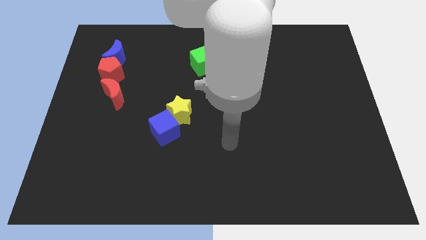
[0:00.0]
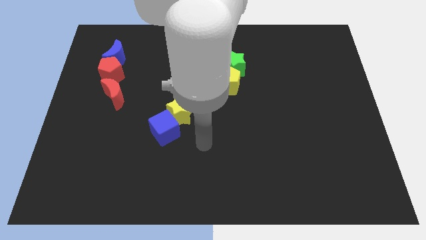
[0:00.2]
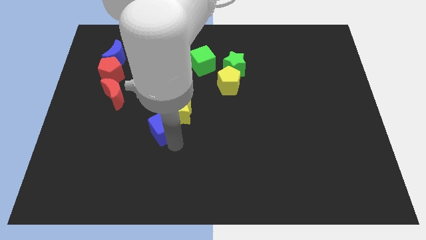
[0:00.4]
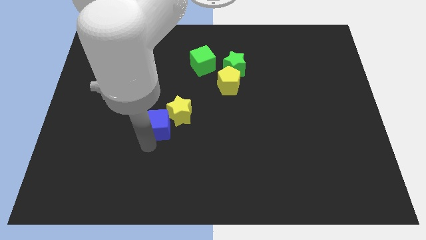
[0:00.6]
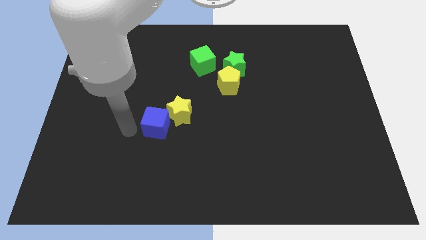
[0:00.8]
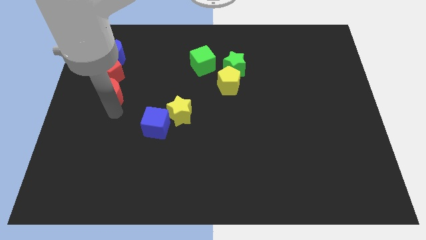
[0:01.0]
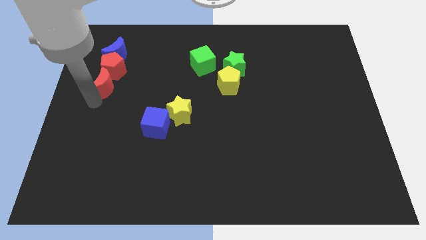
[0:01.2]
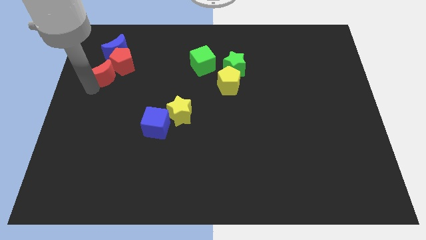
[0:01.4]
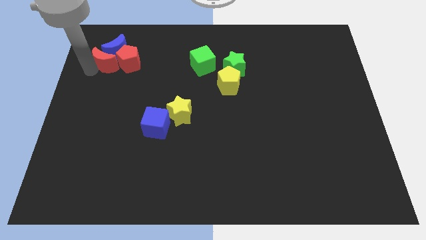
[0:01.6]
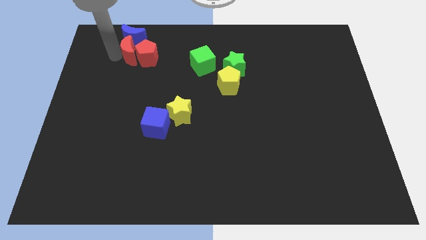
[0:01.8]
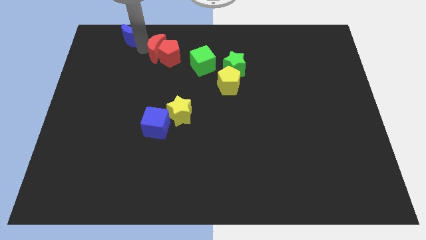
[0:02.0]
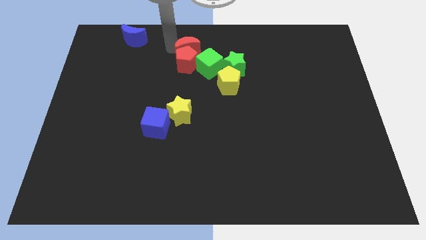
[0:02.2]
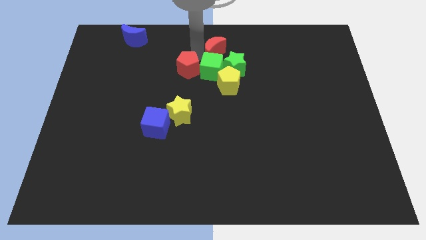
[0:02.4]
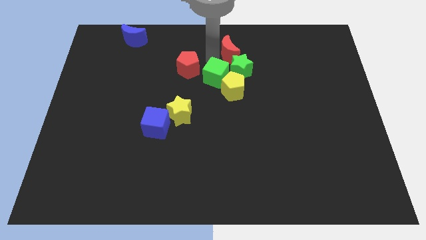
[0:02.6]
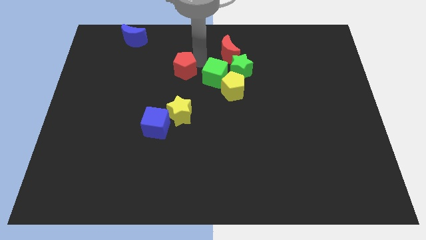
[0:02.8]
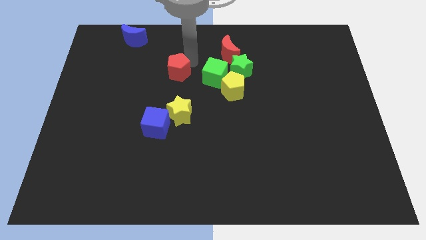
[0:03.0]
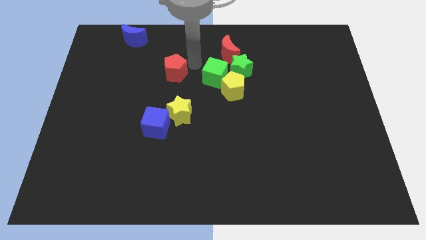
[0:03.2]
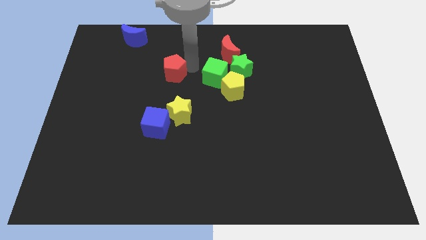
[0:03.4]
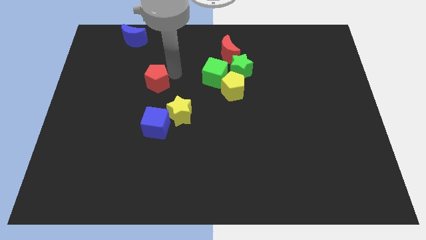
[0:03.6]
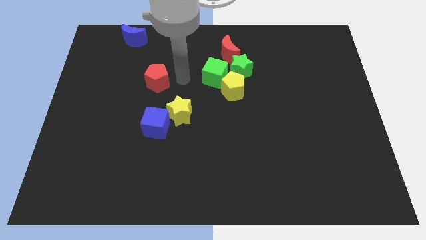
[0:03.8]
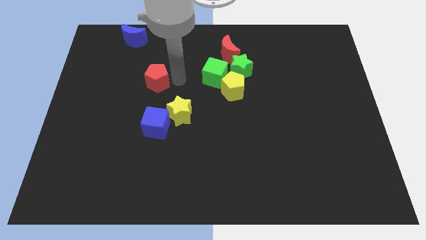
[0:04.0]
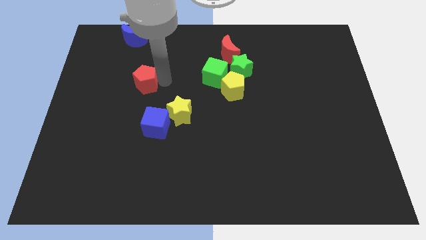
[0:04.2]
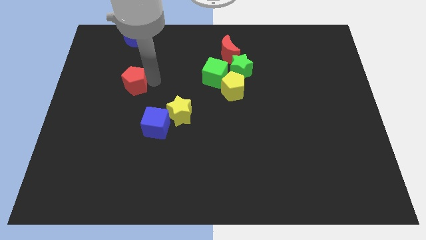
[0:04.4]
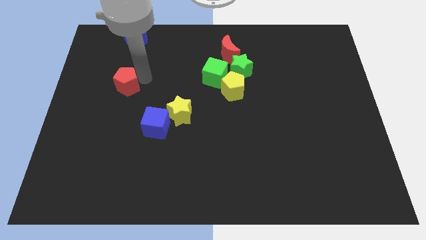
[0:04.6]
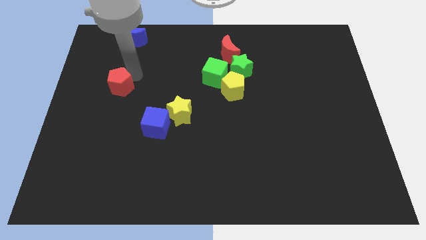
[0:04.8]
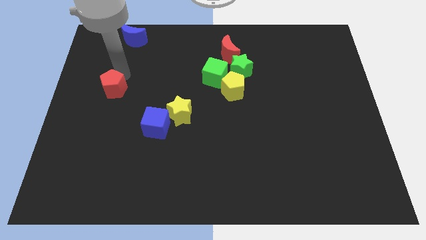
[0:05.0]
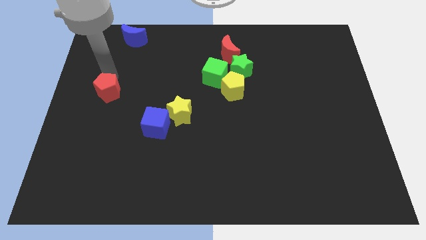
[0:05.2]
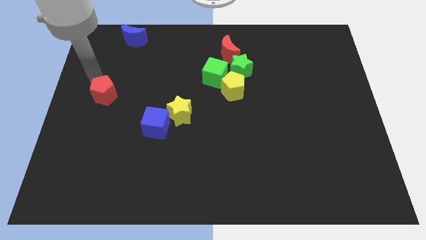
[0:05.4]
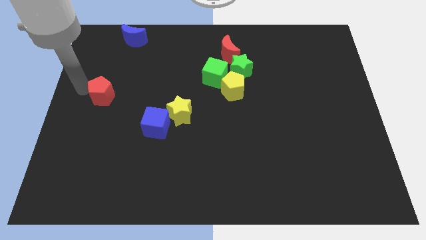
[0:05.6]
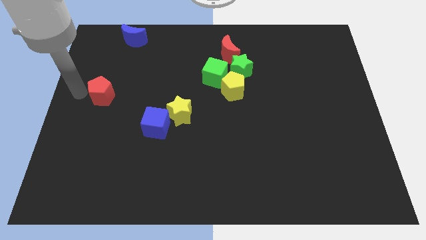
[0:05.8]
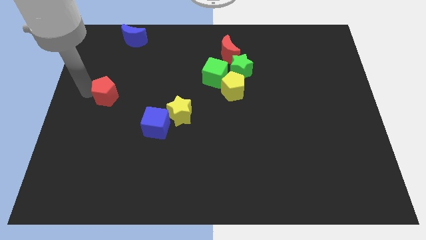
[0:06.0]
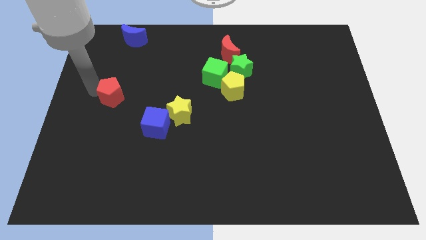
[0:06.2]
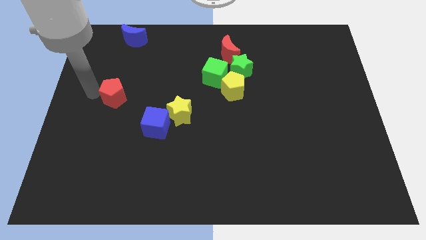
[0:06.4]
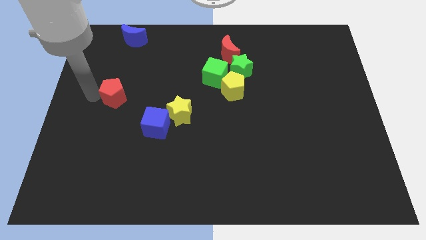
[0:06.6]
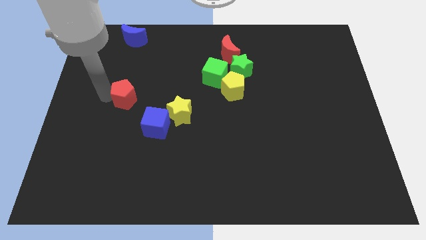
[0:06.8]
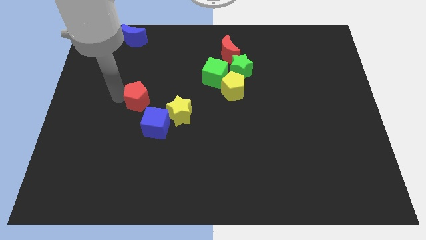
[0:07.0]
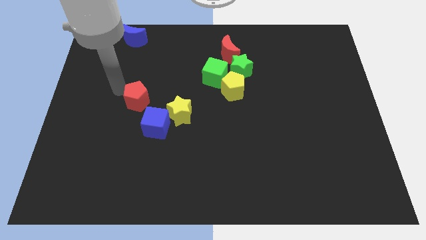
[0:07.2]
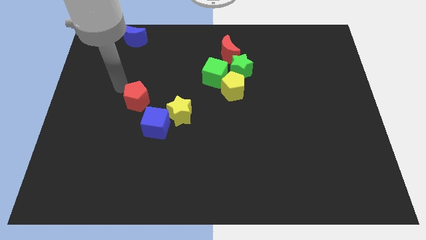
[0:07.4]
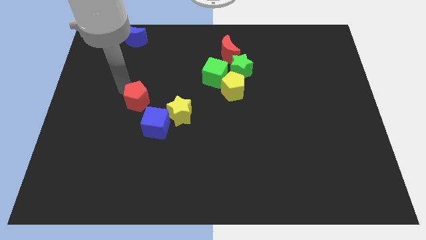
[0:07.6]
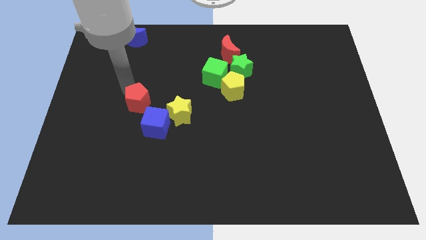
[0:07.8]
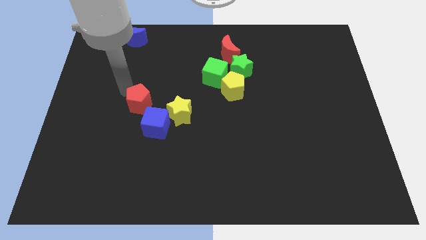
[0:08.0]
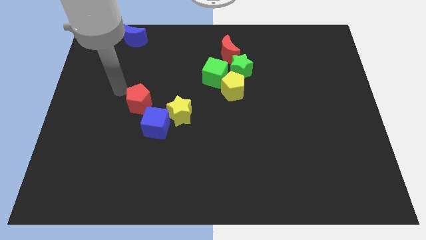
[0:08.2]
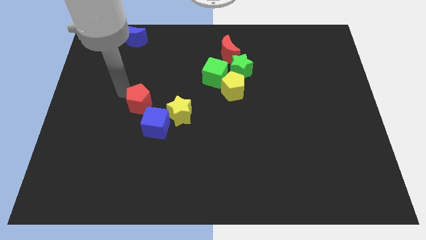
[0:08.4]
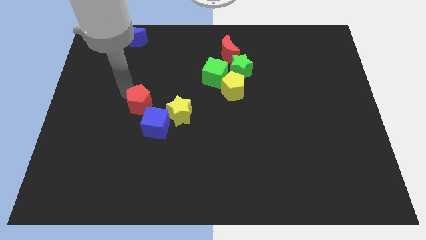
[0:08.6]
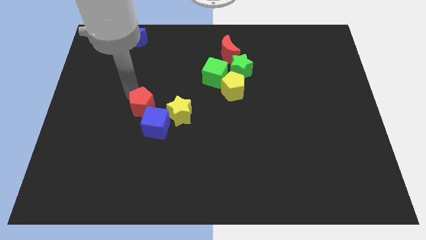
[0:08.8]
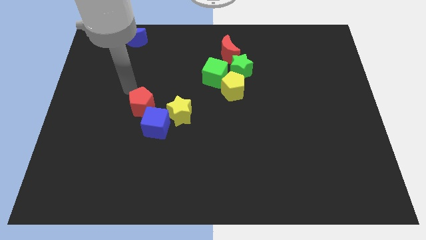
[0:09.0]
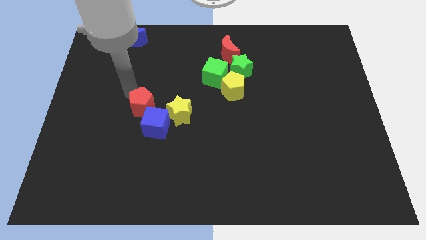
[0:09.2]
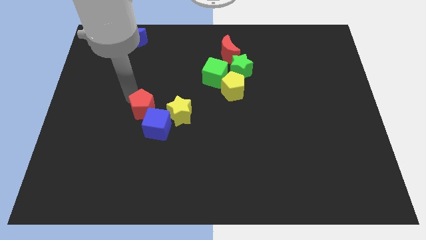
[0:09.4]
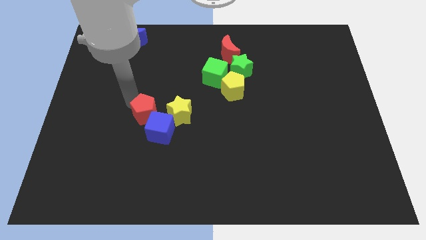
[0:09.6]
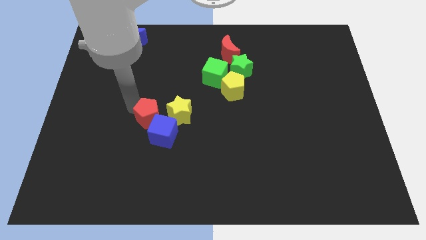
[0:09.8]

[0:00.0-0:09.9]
push the red pentagon towards the blue cube

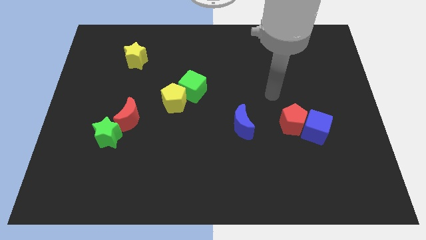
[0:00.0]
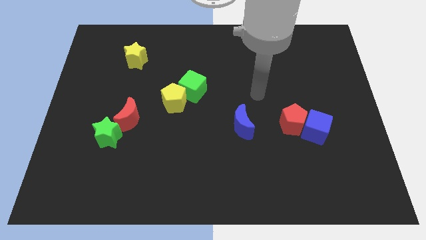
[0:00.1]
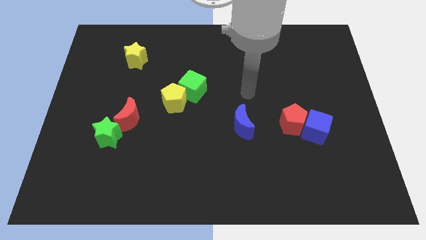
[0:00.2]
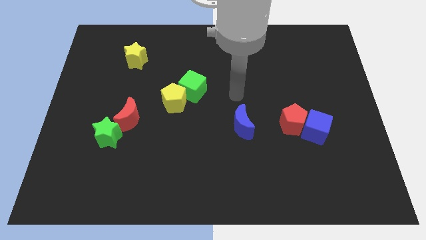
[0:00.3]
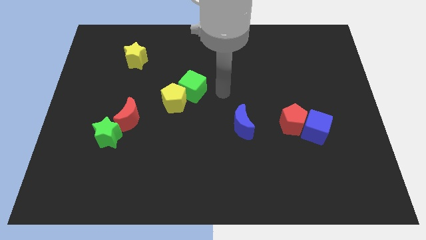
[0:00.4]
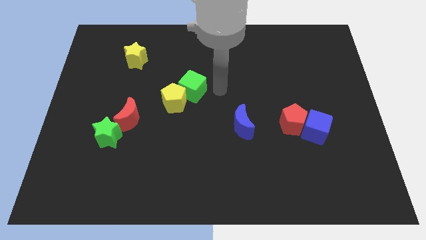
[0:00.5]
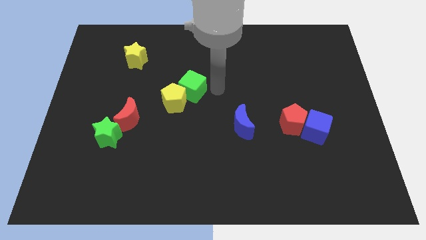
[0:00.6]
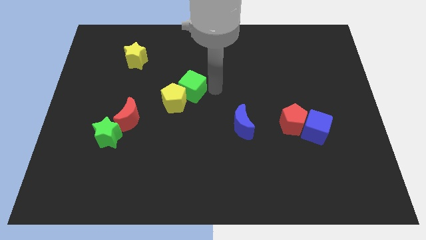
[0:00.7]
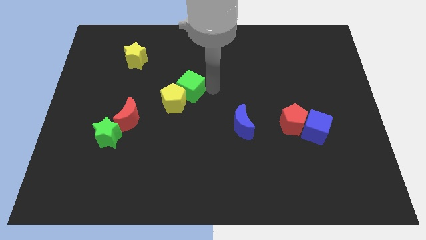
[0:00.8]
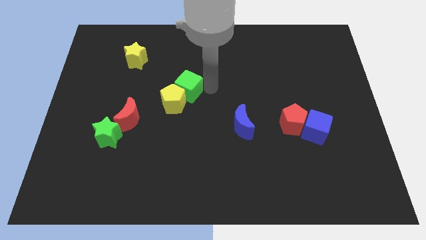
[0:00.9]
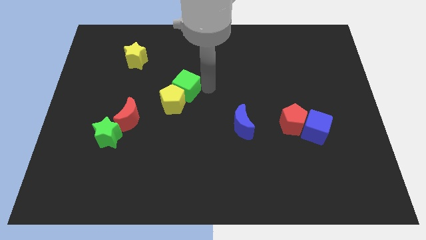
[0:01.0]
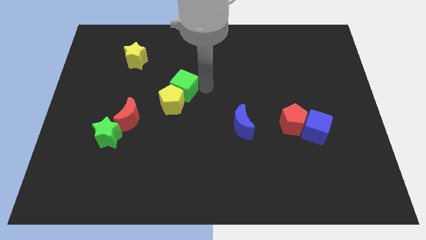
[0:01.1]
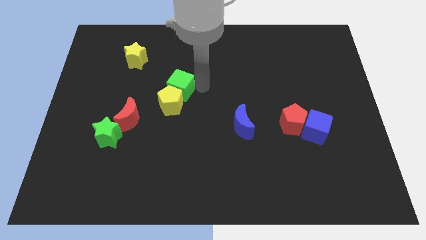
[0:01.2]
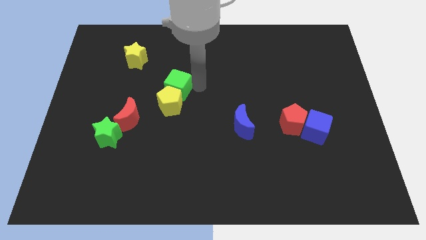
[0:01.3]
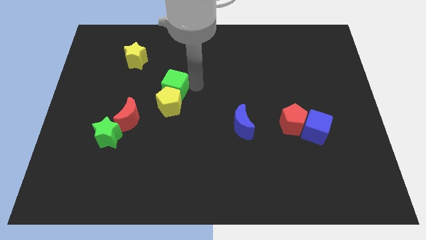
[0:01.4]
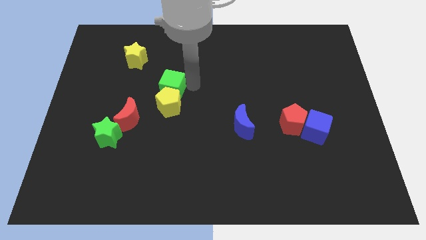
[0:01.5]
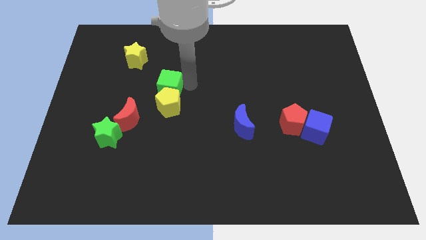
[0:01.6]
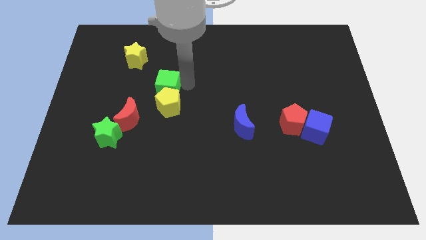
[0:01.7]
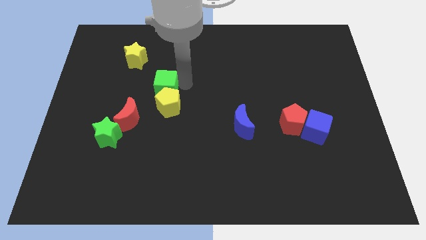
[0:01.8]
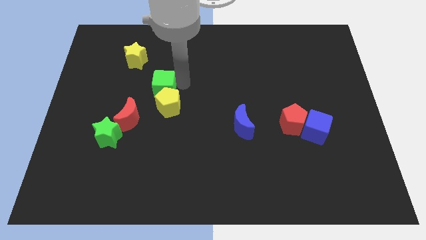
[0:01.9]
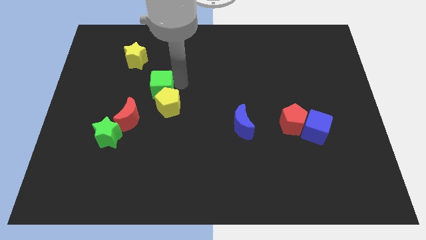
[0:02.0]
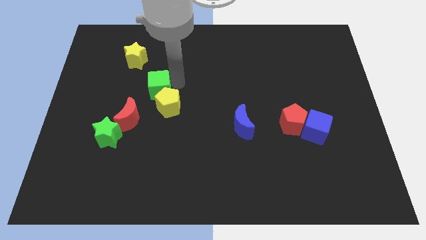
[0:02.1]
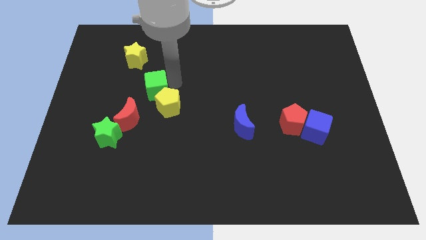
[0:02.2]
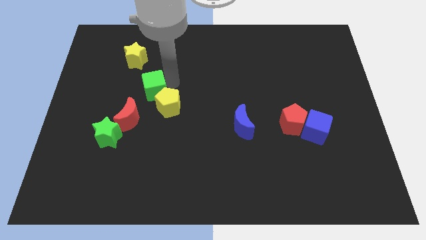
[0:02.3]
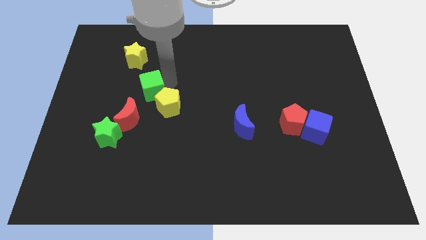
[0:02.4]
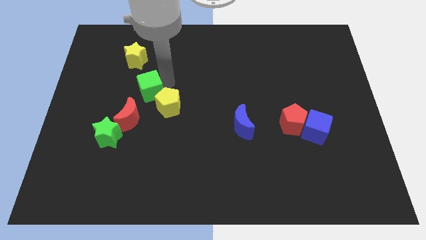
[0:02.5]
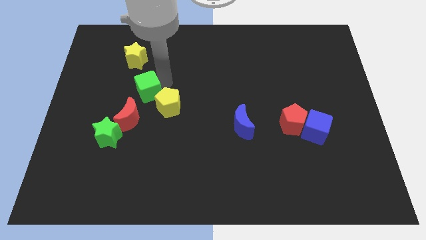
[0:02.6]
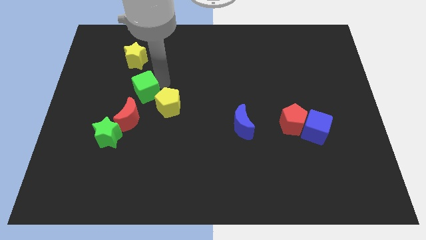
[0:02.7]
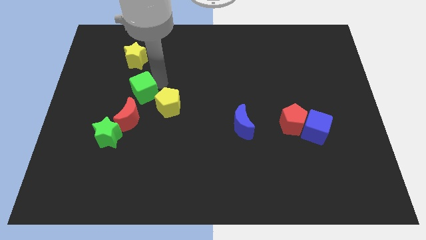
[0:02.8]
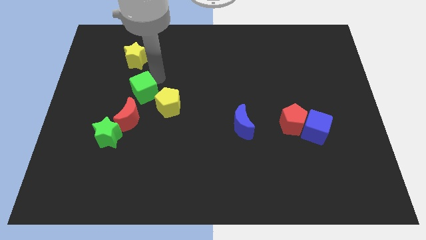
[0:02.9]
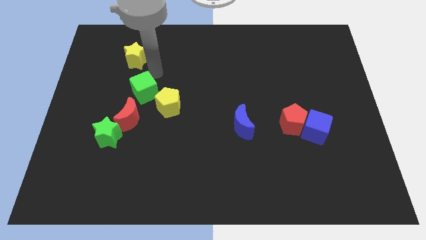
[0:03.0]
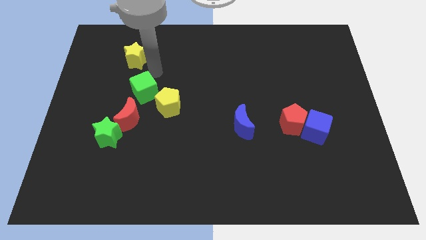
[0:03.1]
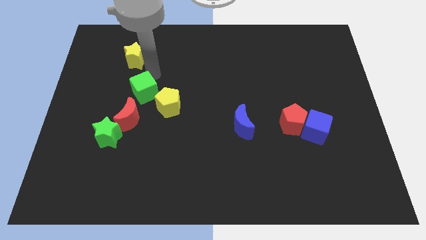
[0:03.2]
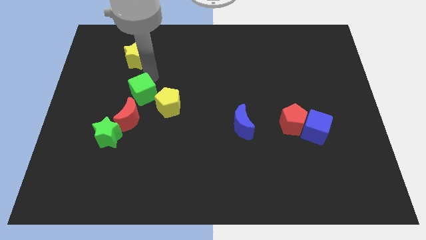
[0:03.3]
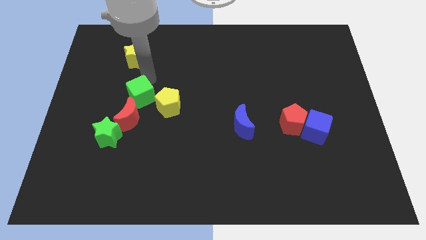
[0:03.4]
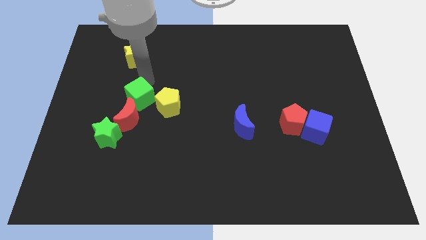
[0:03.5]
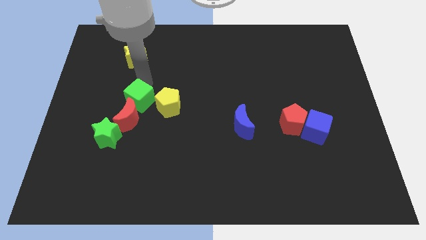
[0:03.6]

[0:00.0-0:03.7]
put the green cube close to the red moon
